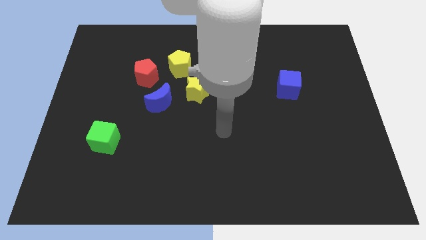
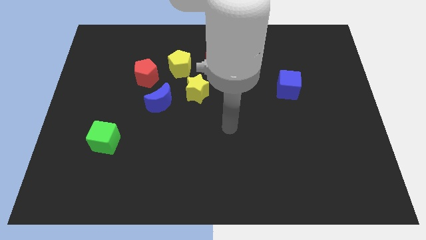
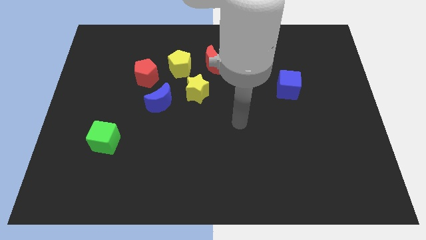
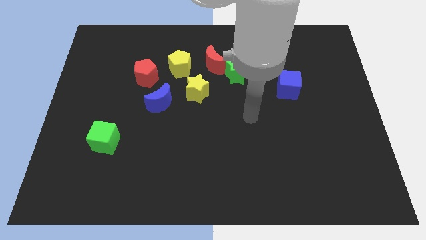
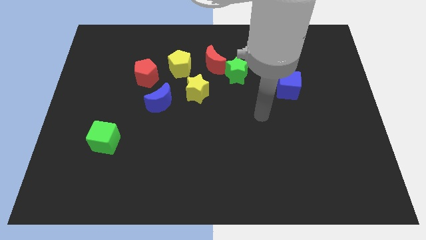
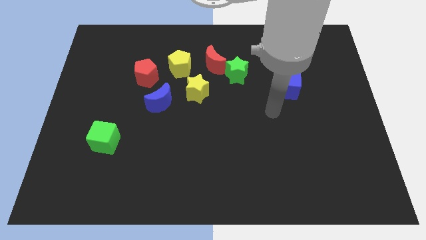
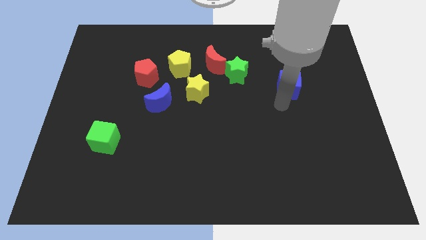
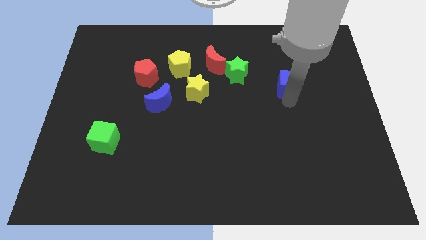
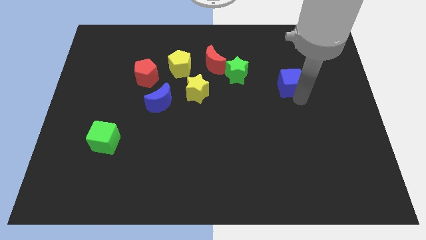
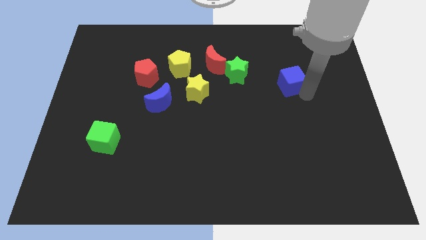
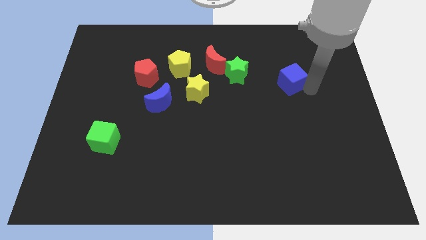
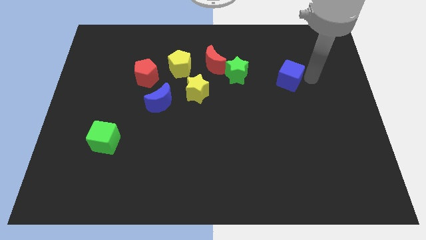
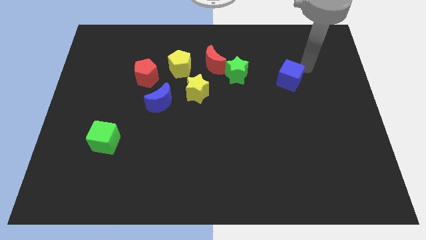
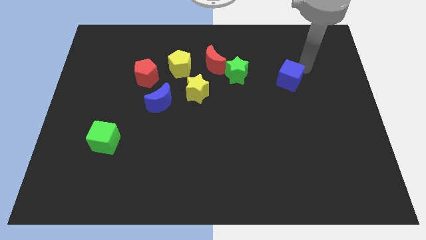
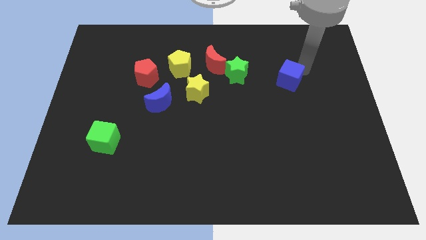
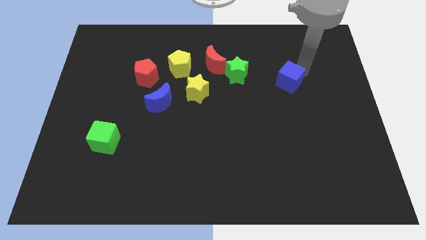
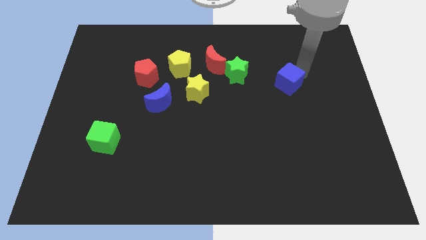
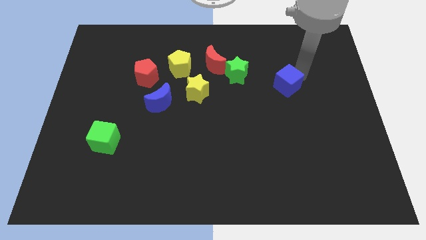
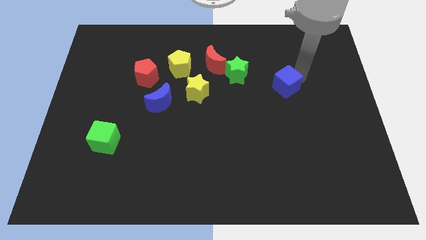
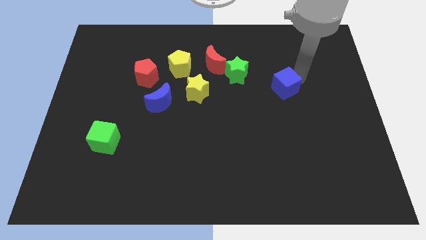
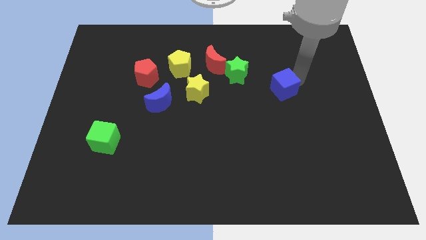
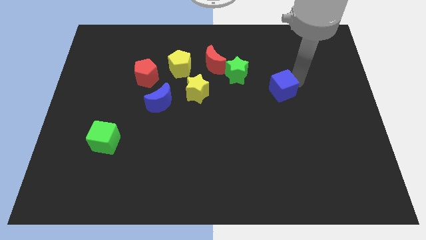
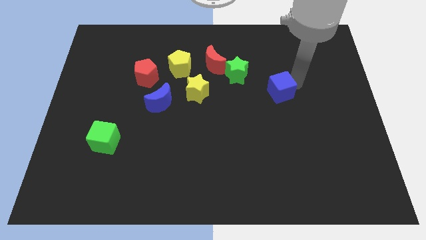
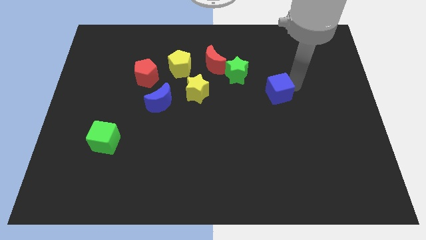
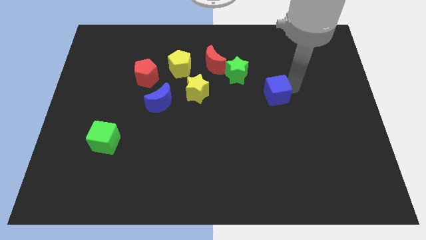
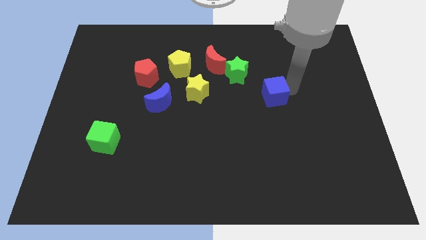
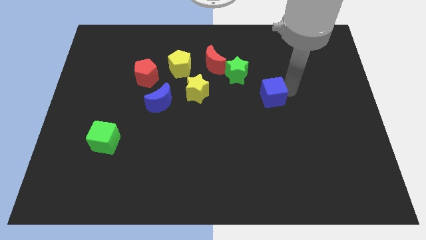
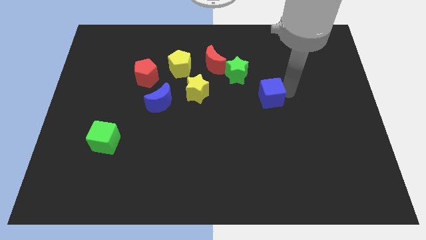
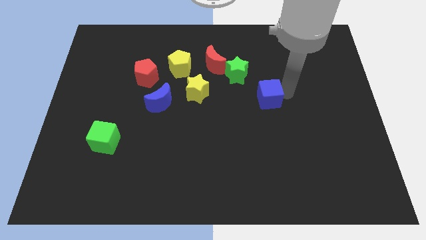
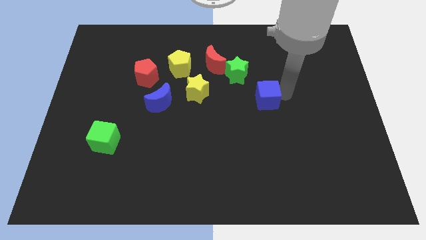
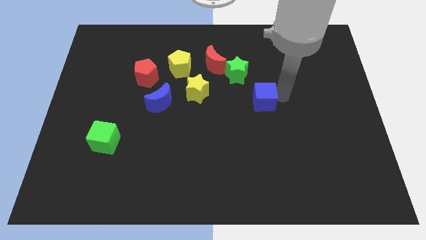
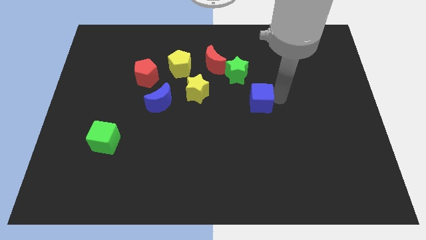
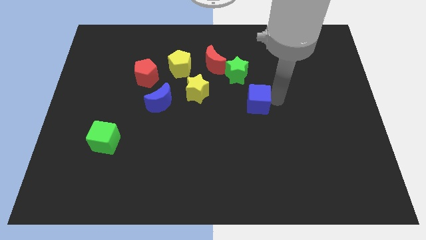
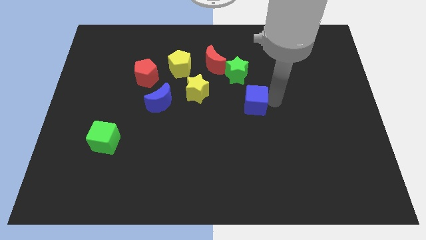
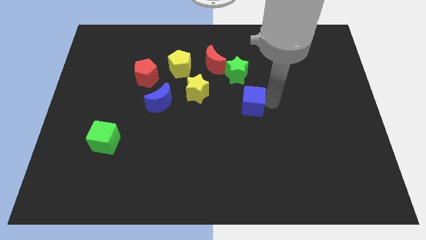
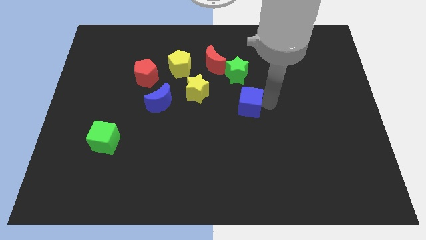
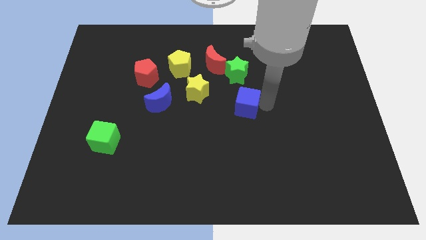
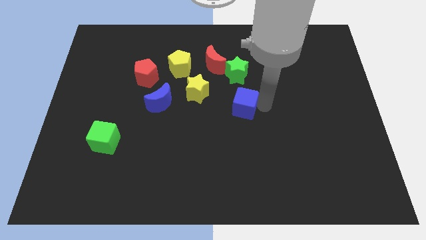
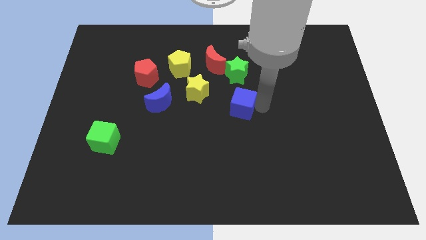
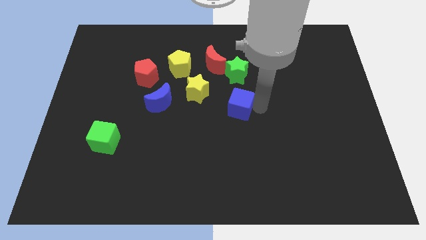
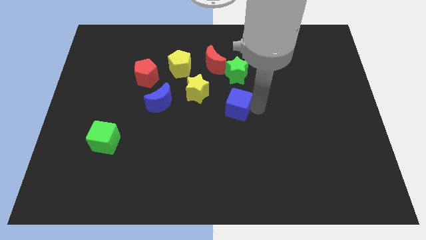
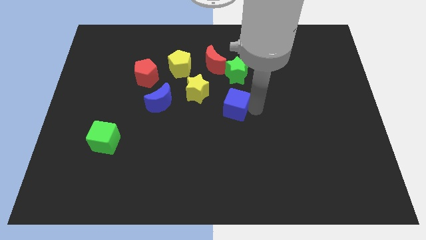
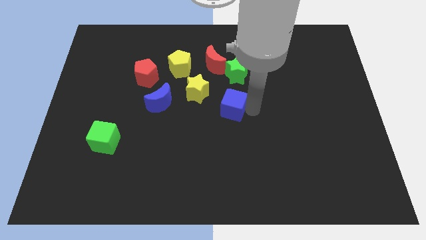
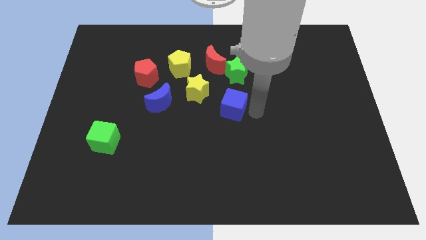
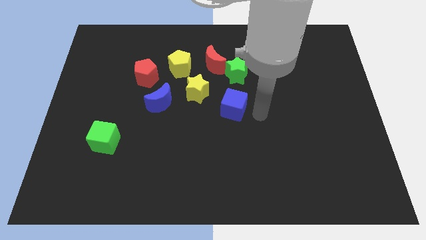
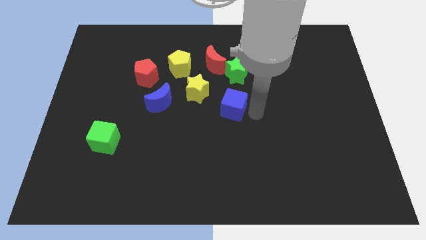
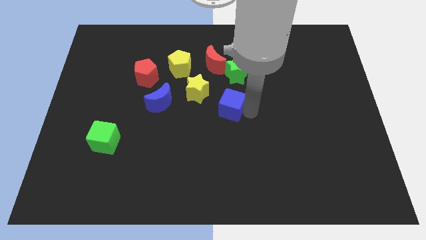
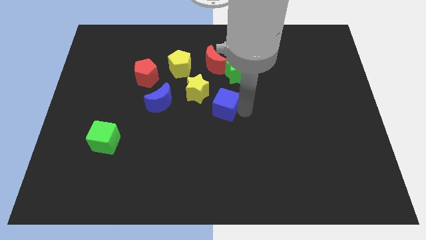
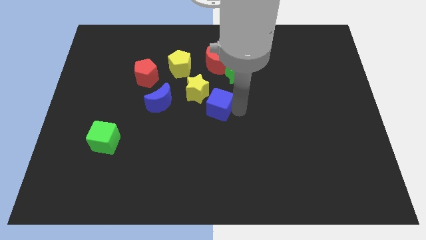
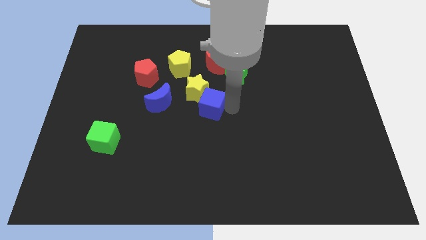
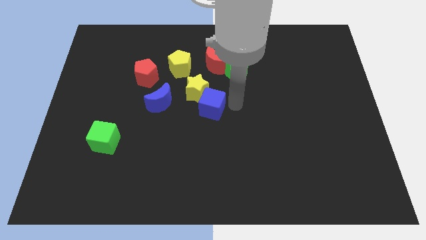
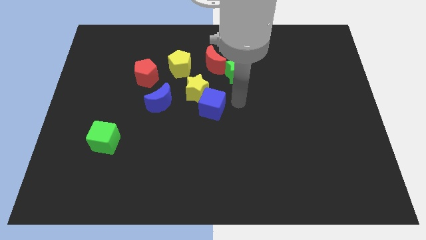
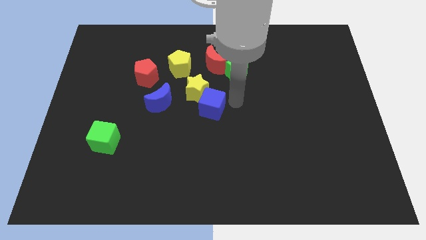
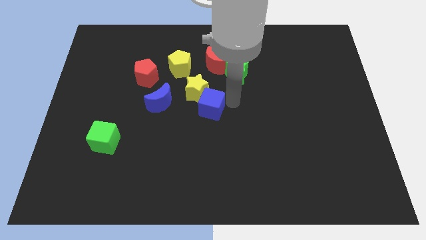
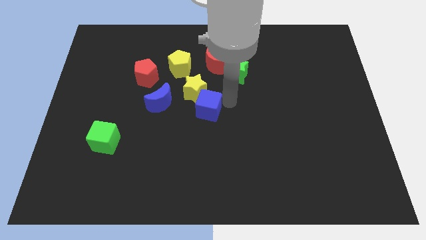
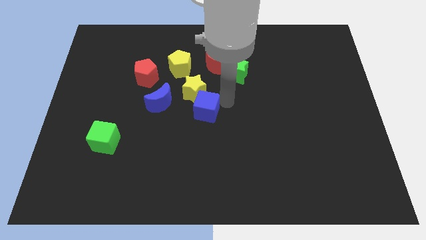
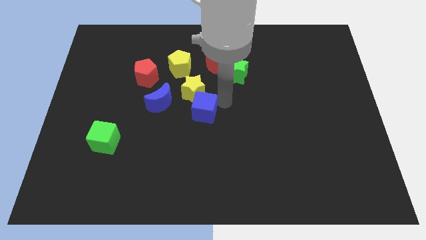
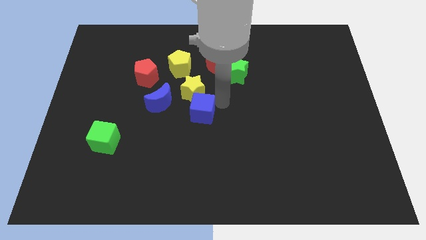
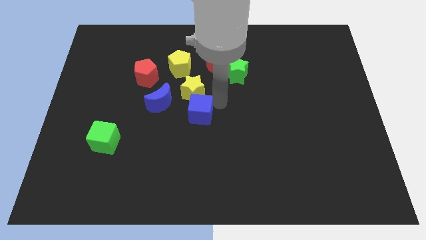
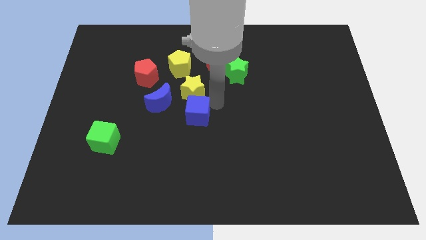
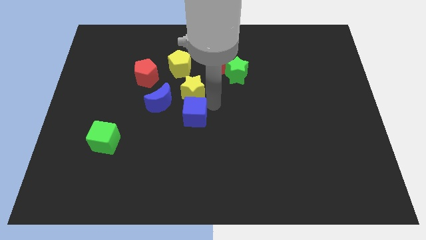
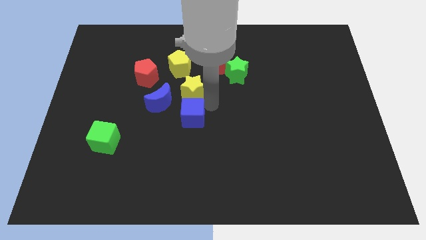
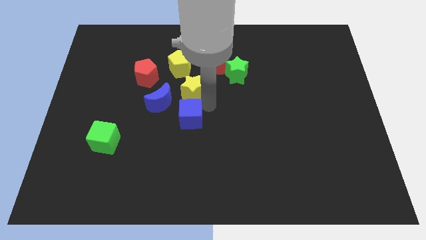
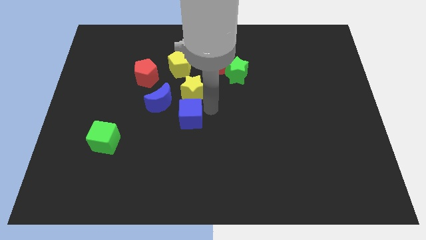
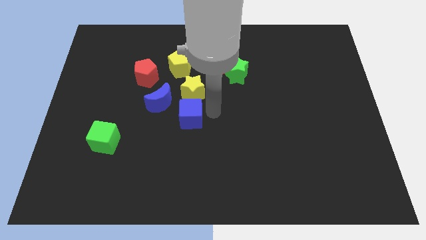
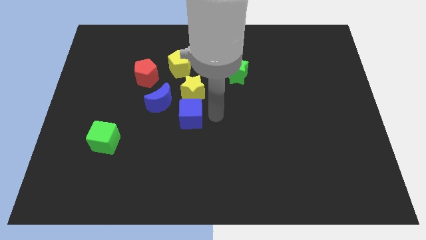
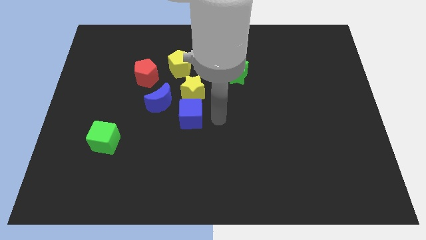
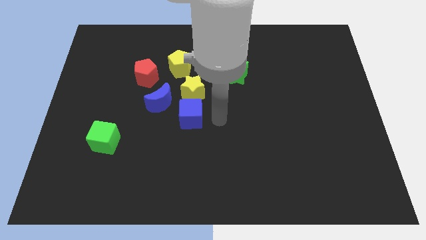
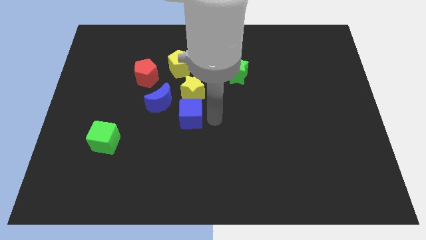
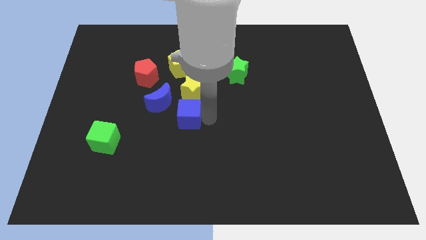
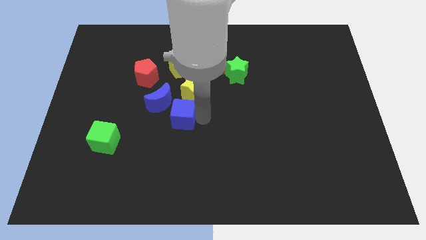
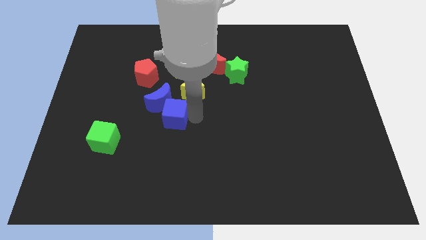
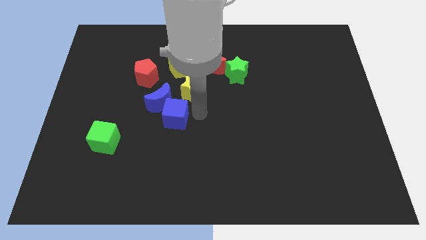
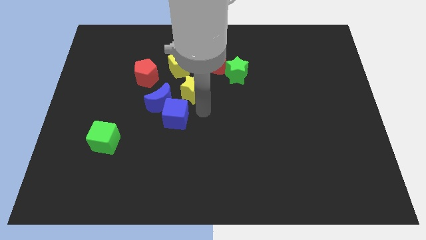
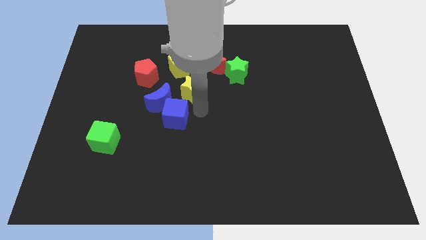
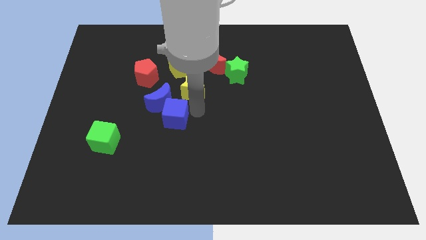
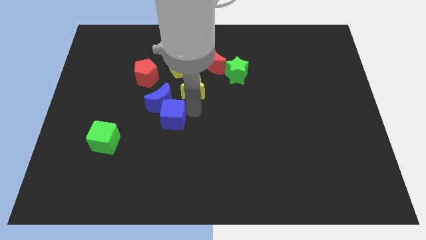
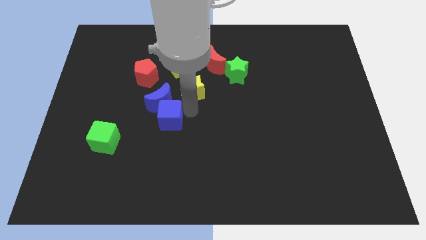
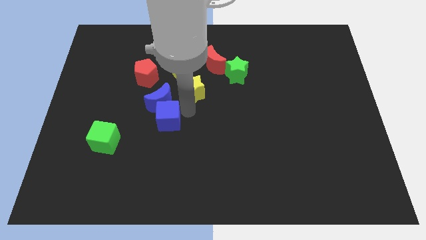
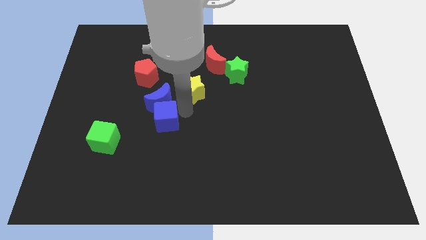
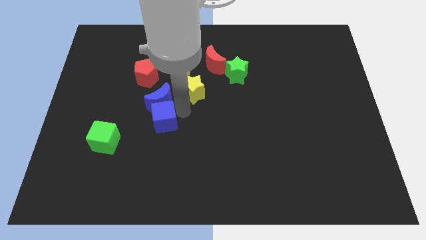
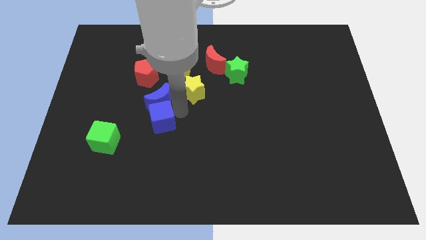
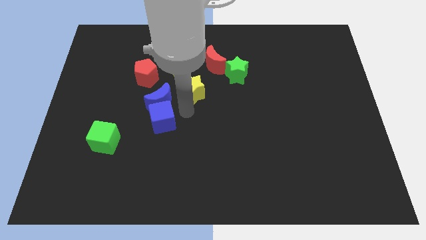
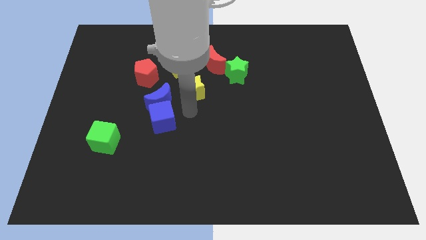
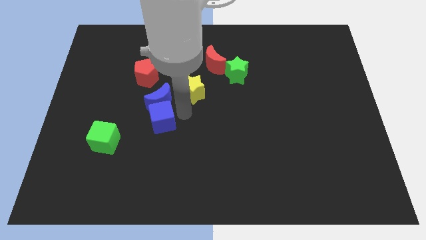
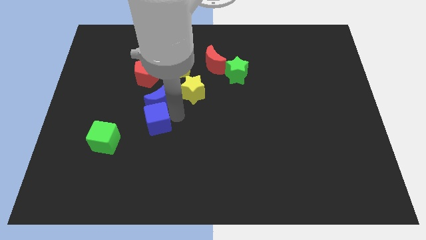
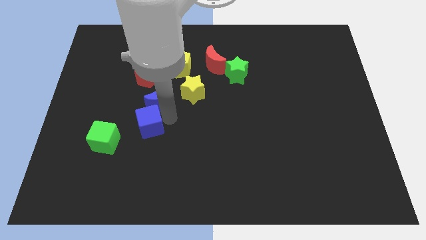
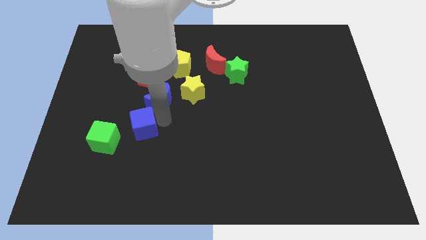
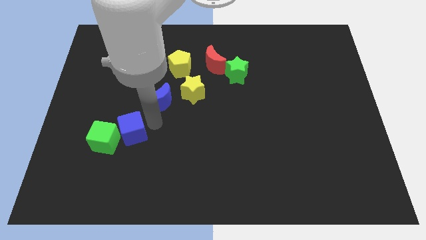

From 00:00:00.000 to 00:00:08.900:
slide the blue cube close to the green cube
